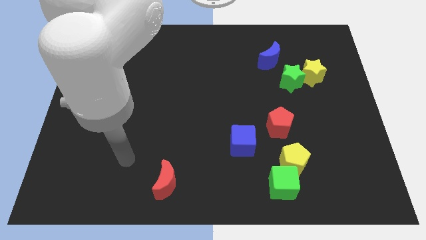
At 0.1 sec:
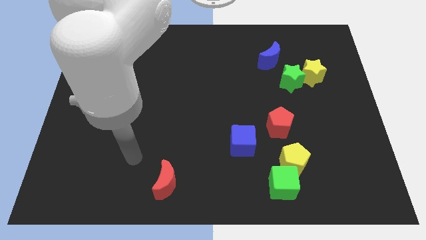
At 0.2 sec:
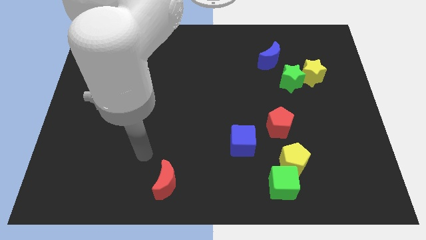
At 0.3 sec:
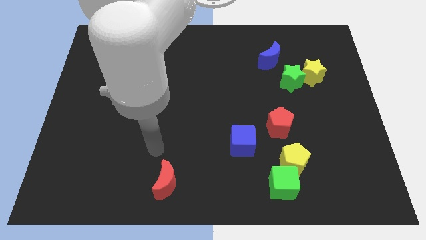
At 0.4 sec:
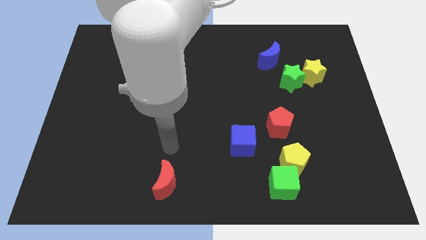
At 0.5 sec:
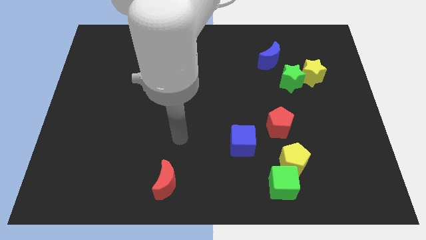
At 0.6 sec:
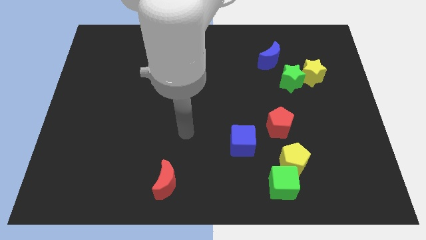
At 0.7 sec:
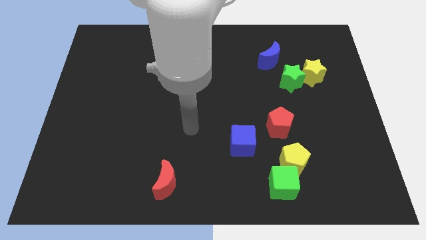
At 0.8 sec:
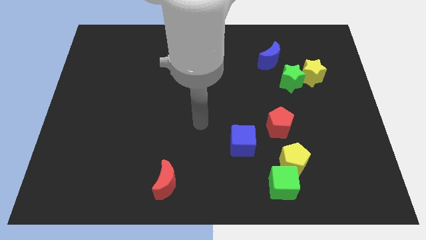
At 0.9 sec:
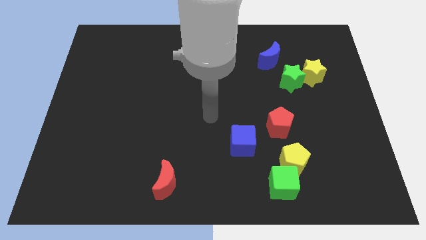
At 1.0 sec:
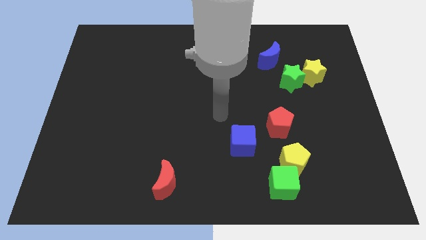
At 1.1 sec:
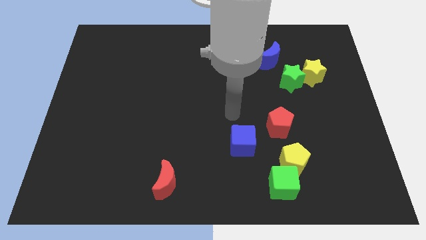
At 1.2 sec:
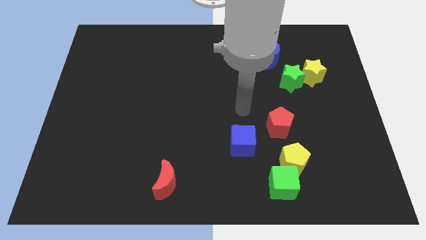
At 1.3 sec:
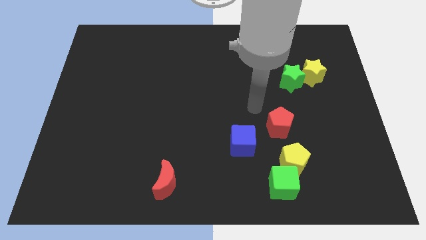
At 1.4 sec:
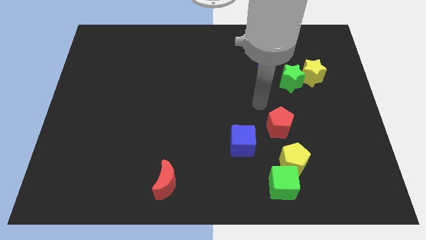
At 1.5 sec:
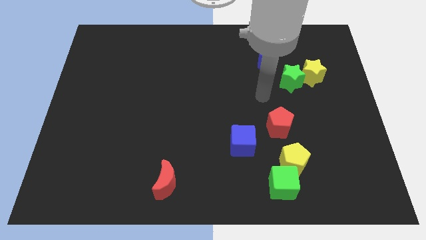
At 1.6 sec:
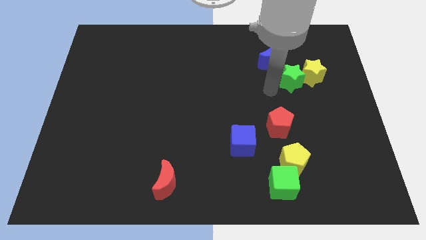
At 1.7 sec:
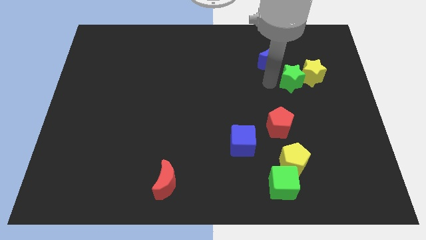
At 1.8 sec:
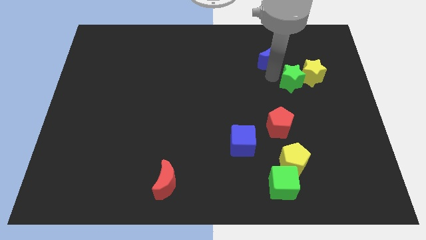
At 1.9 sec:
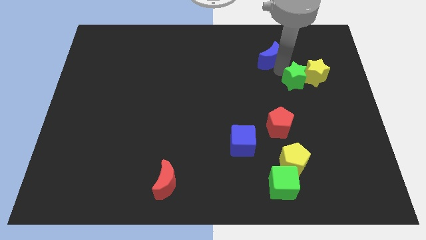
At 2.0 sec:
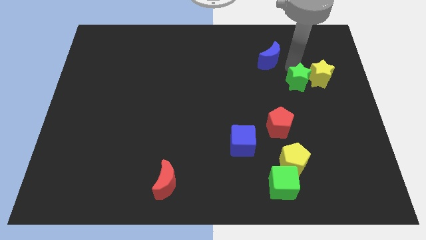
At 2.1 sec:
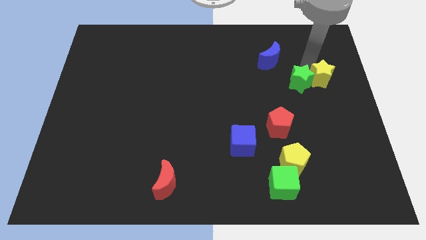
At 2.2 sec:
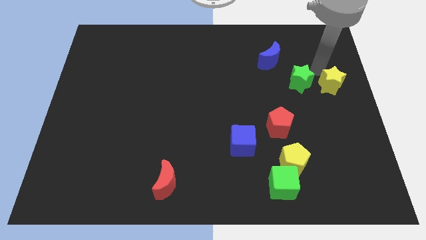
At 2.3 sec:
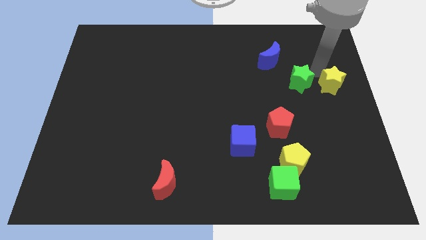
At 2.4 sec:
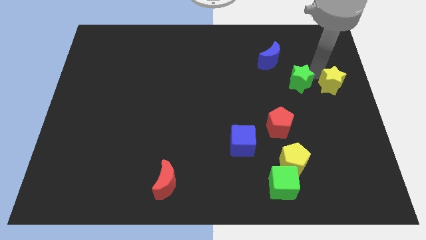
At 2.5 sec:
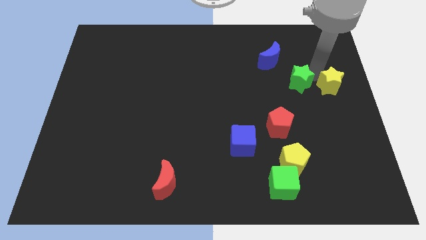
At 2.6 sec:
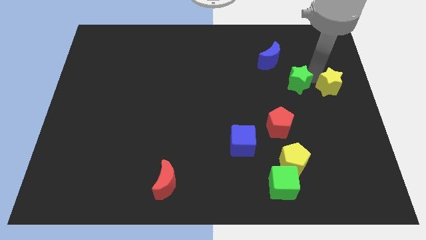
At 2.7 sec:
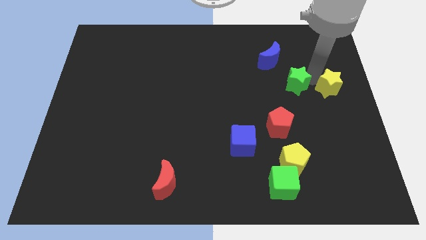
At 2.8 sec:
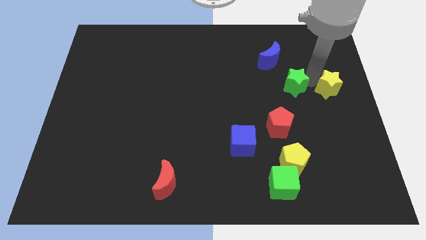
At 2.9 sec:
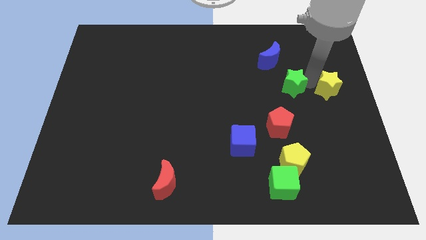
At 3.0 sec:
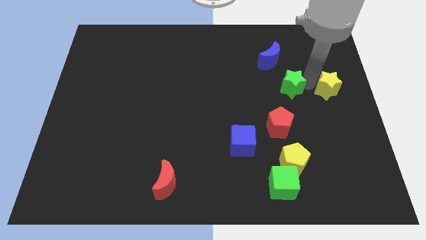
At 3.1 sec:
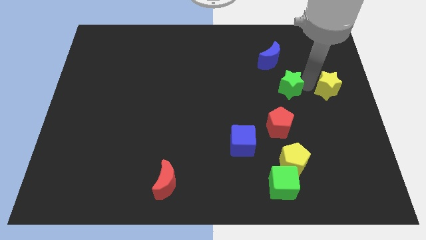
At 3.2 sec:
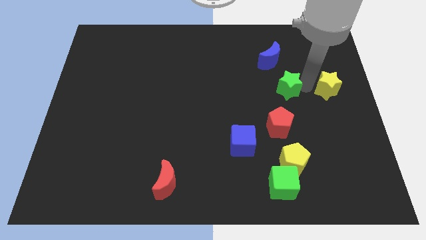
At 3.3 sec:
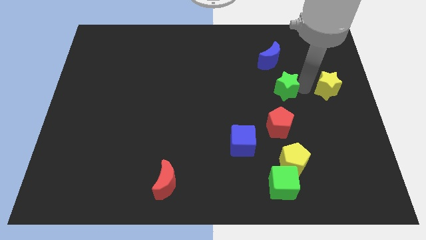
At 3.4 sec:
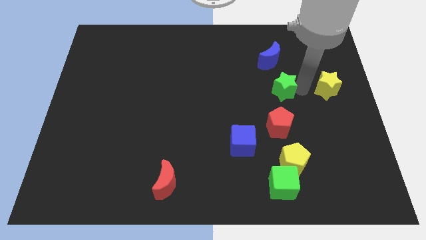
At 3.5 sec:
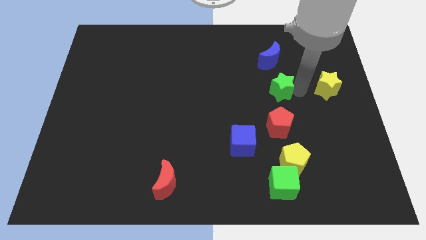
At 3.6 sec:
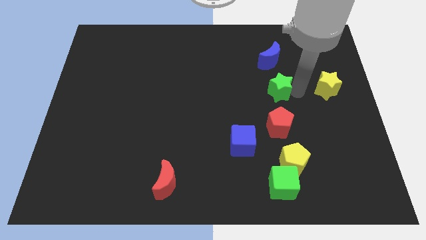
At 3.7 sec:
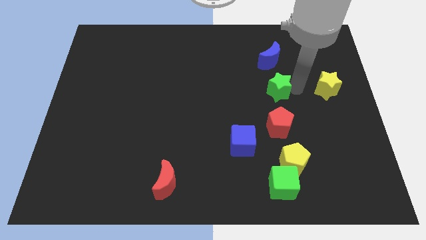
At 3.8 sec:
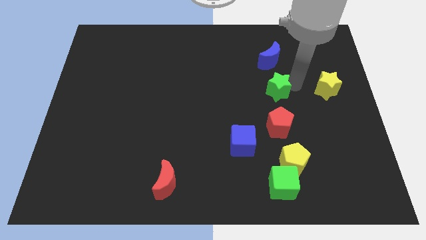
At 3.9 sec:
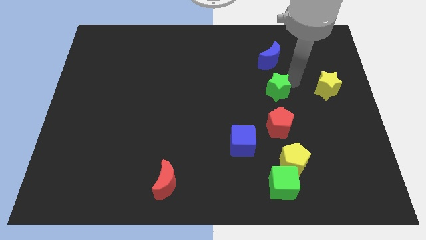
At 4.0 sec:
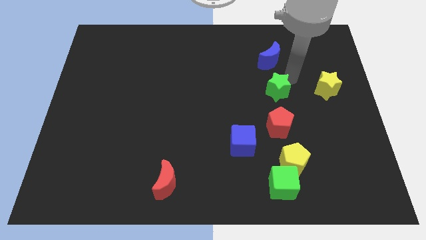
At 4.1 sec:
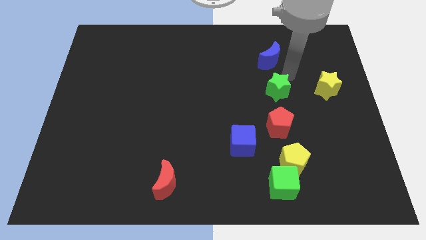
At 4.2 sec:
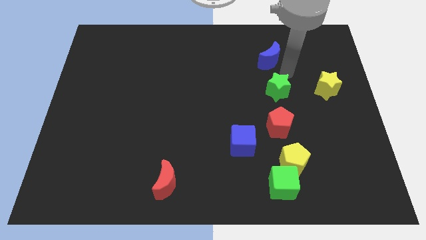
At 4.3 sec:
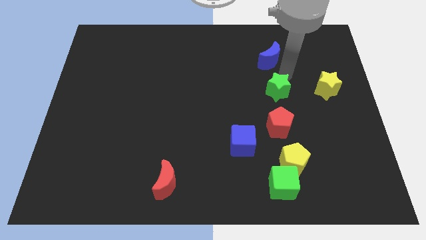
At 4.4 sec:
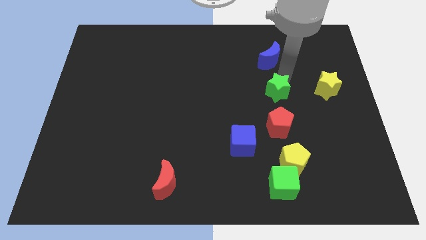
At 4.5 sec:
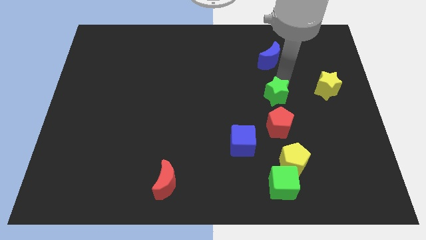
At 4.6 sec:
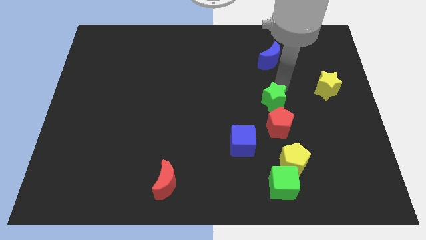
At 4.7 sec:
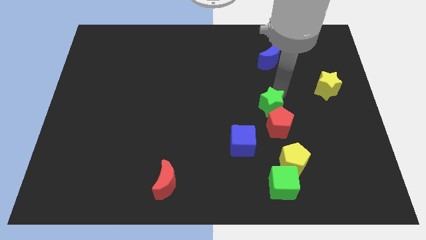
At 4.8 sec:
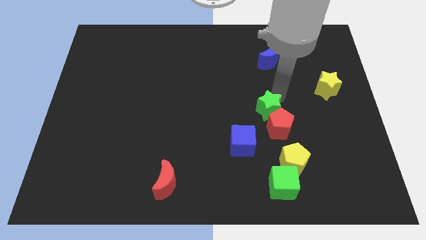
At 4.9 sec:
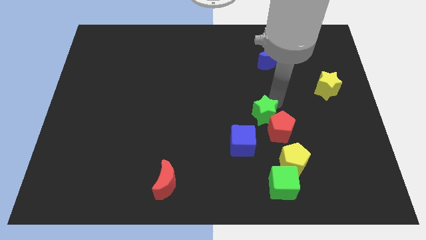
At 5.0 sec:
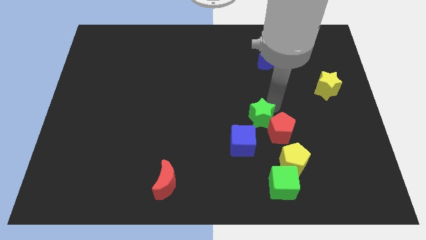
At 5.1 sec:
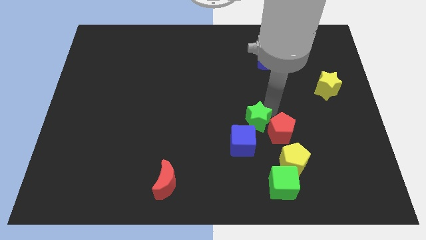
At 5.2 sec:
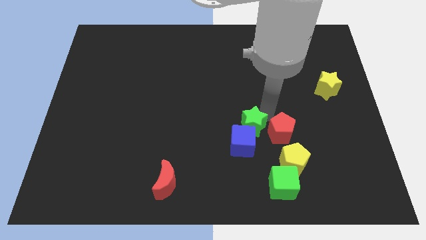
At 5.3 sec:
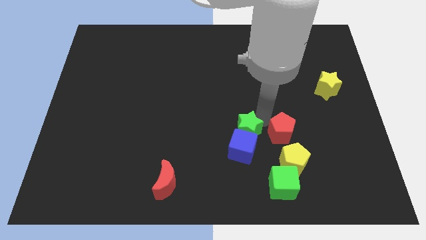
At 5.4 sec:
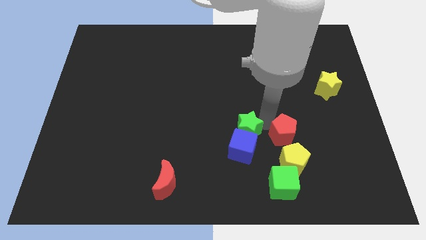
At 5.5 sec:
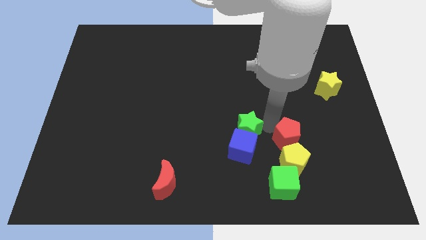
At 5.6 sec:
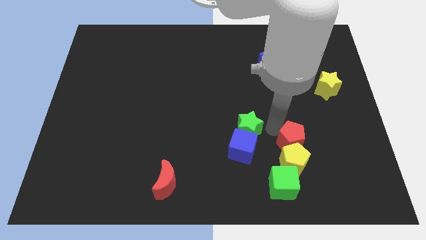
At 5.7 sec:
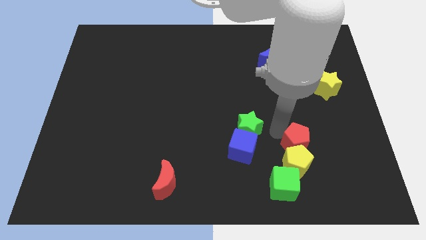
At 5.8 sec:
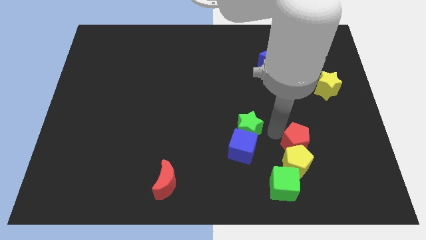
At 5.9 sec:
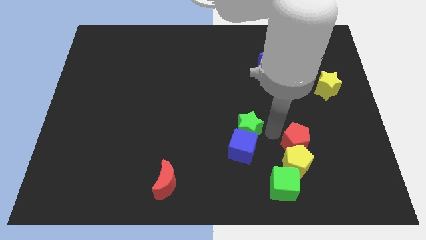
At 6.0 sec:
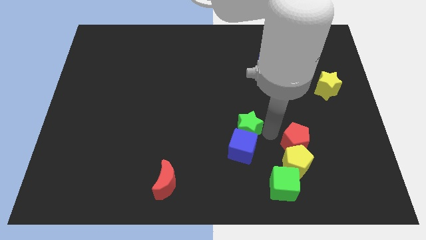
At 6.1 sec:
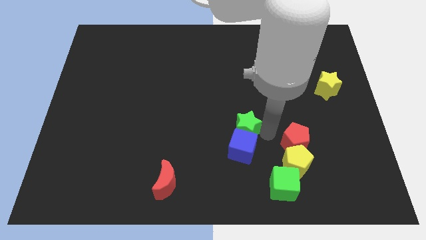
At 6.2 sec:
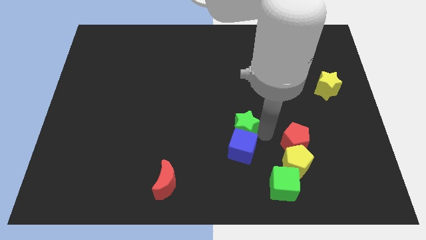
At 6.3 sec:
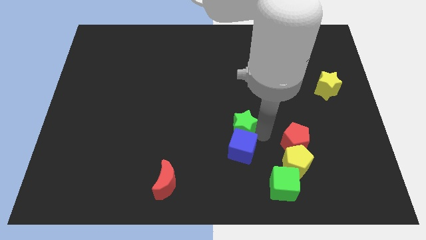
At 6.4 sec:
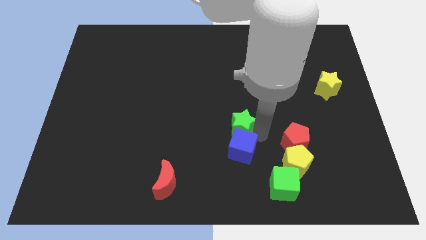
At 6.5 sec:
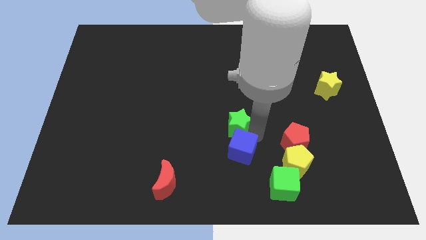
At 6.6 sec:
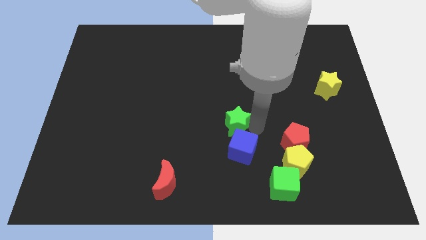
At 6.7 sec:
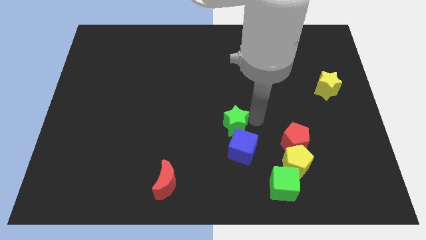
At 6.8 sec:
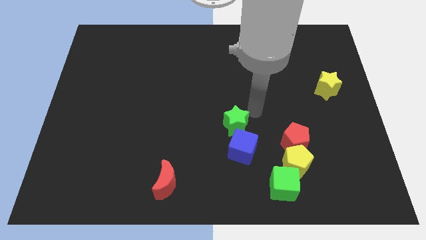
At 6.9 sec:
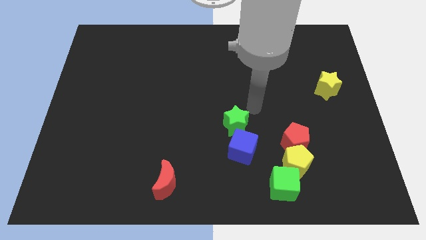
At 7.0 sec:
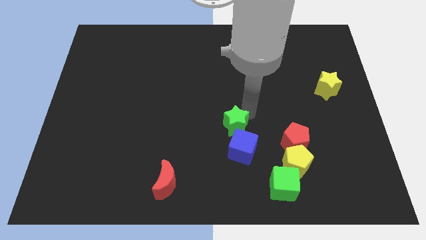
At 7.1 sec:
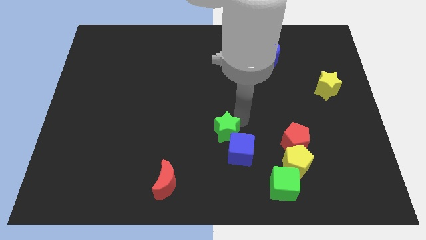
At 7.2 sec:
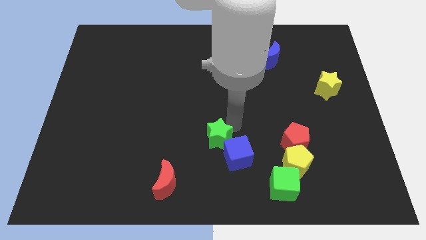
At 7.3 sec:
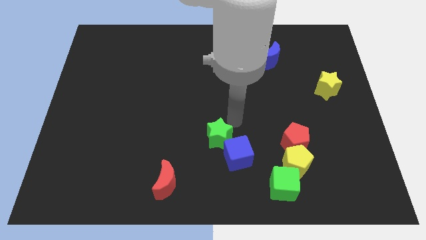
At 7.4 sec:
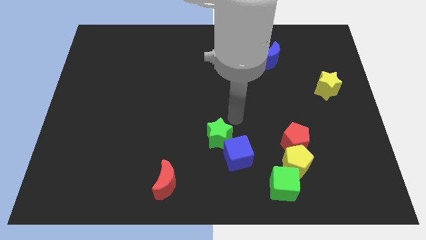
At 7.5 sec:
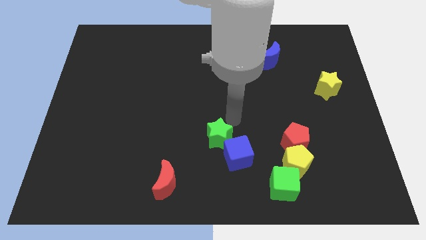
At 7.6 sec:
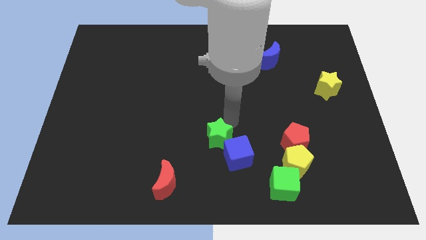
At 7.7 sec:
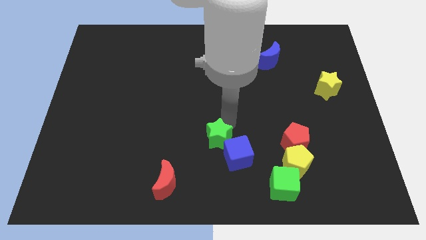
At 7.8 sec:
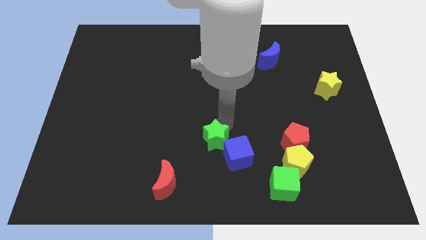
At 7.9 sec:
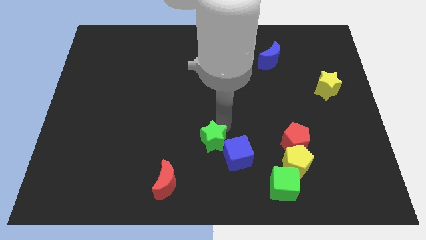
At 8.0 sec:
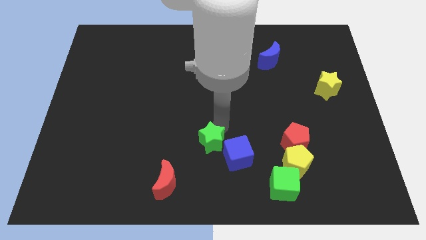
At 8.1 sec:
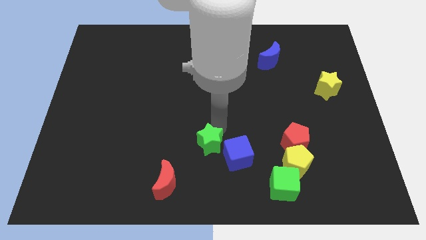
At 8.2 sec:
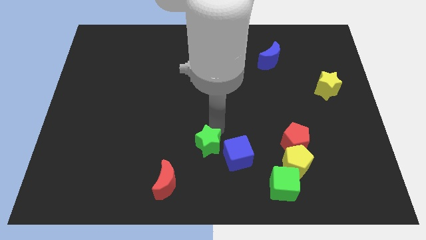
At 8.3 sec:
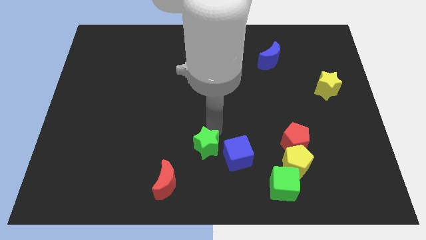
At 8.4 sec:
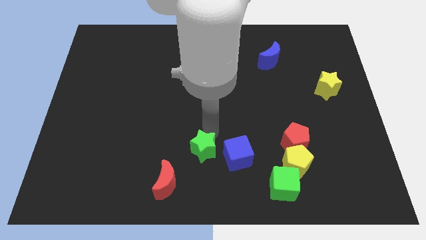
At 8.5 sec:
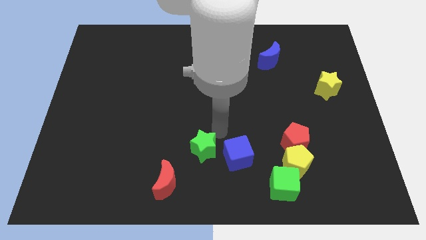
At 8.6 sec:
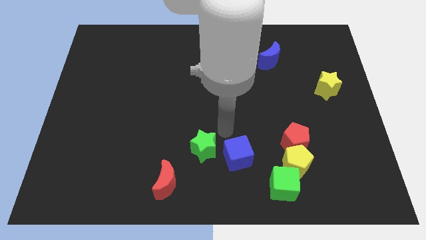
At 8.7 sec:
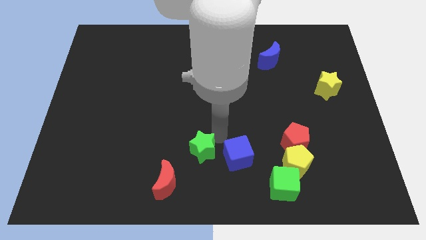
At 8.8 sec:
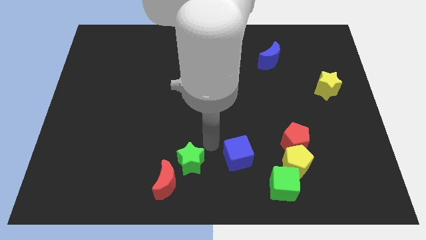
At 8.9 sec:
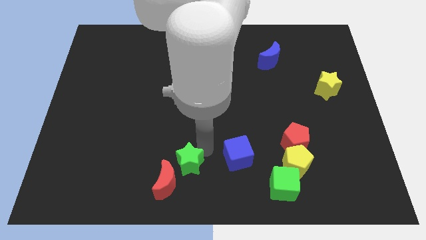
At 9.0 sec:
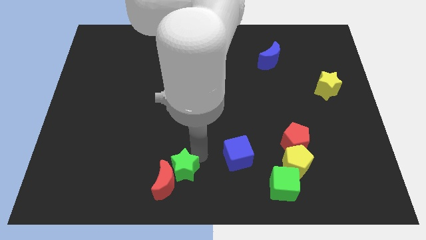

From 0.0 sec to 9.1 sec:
move the green star to the red moon
